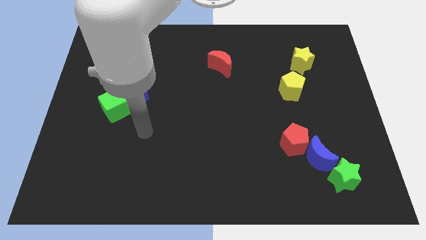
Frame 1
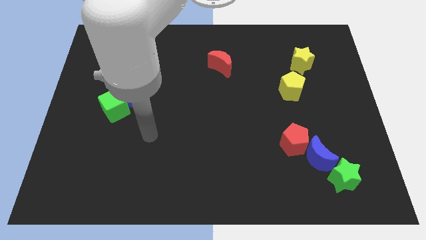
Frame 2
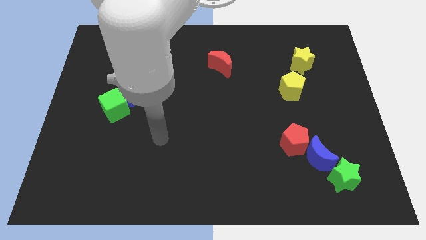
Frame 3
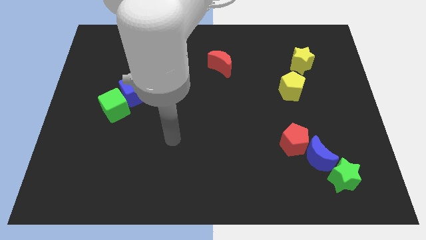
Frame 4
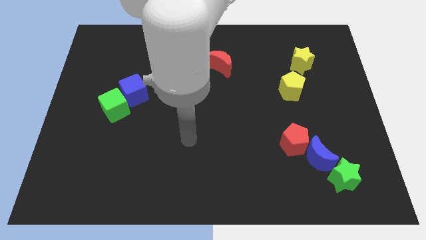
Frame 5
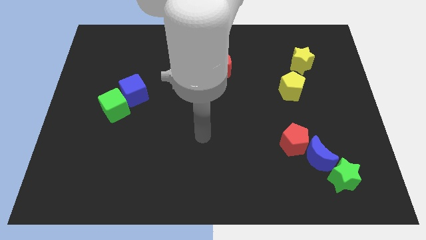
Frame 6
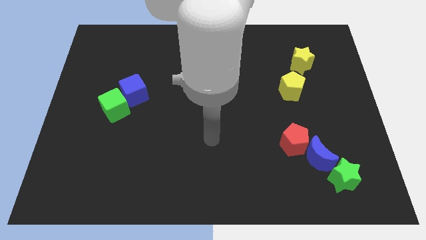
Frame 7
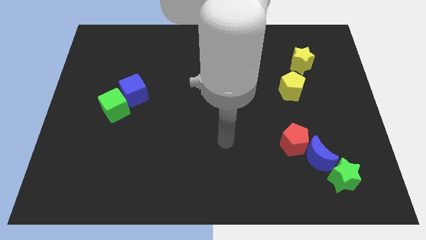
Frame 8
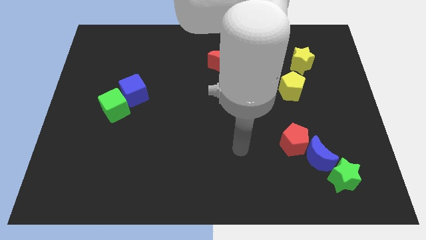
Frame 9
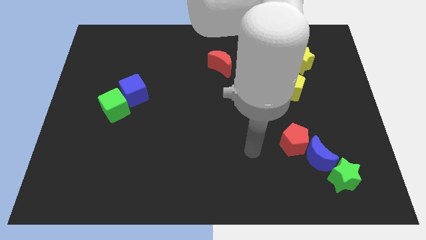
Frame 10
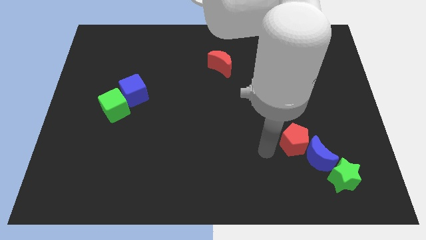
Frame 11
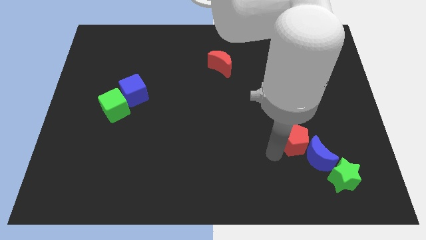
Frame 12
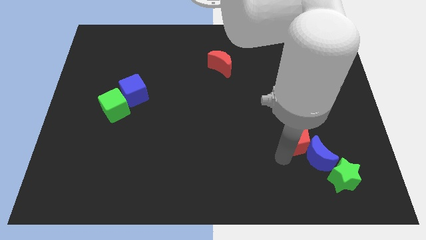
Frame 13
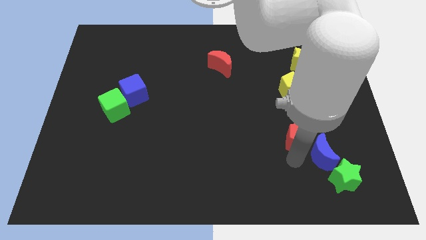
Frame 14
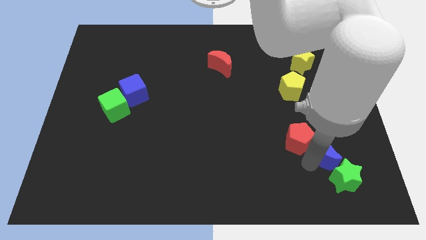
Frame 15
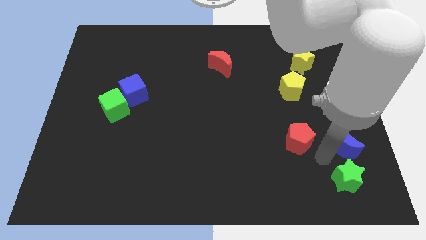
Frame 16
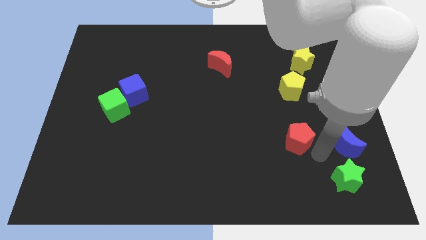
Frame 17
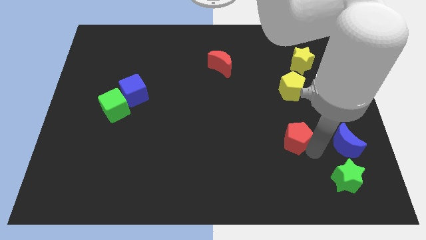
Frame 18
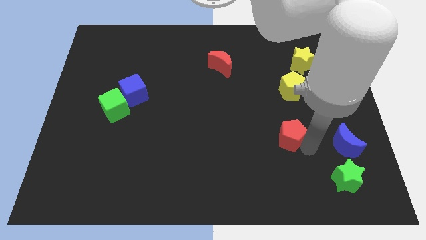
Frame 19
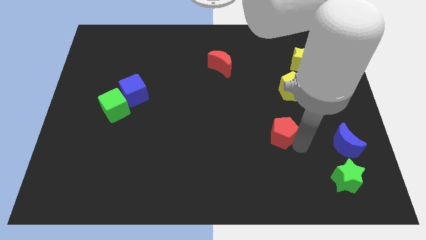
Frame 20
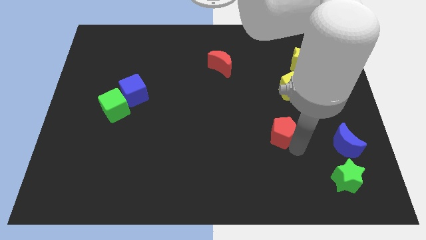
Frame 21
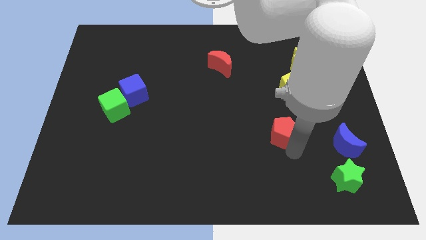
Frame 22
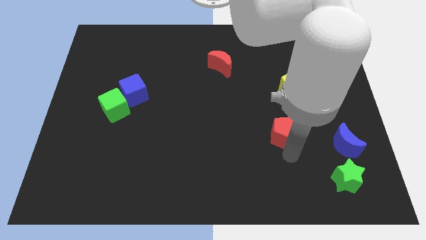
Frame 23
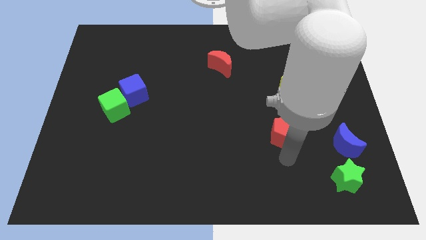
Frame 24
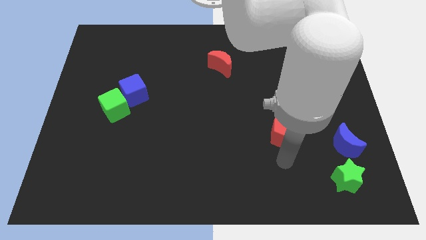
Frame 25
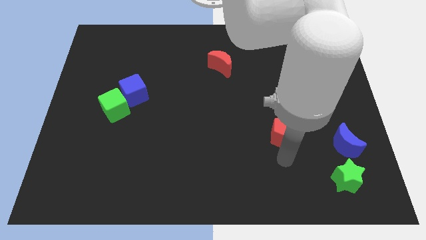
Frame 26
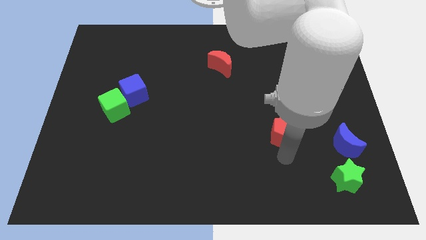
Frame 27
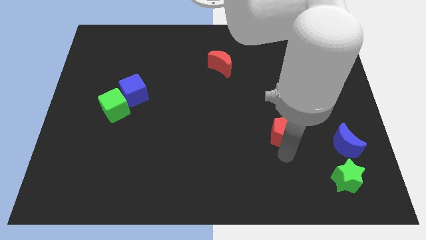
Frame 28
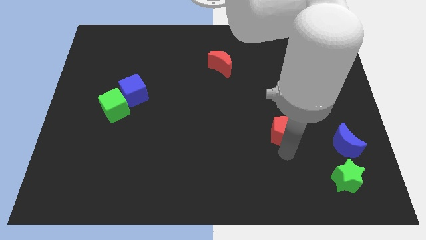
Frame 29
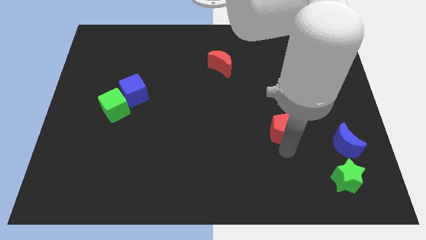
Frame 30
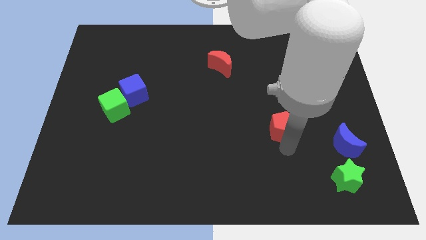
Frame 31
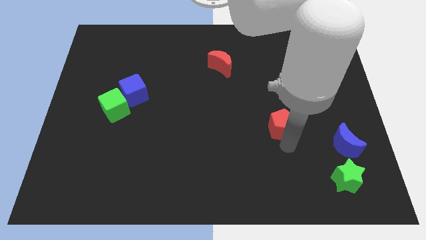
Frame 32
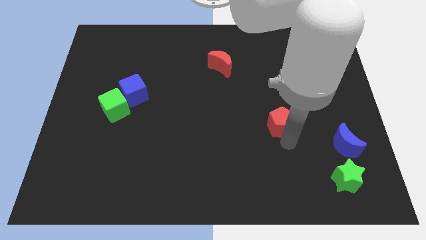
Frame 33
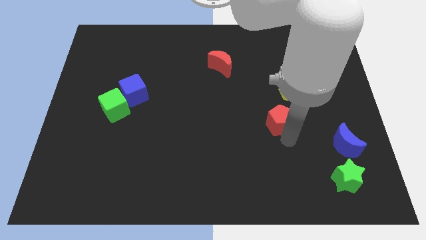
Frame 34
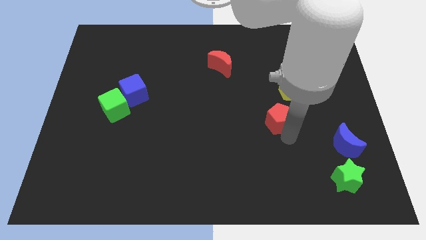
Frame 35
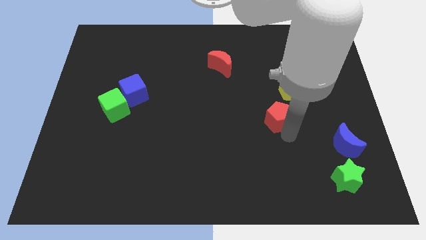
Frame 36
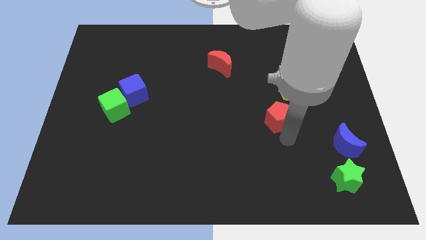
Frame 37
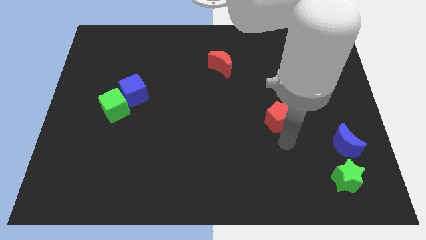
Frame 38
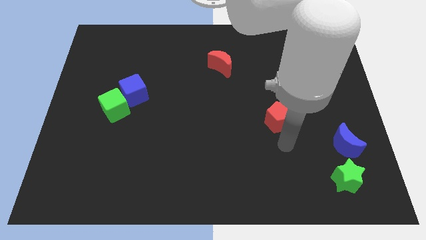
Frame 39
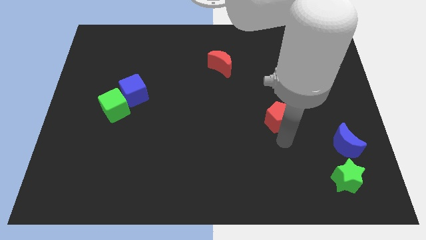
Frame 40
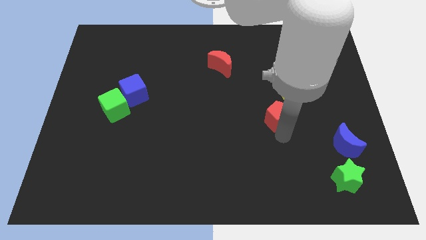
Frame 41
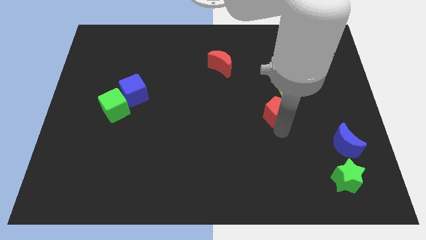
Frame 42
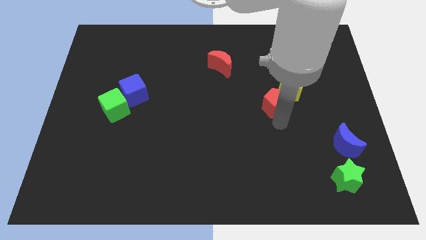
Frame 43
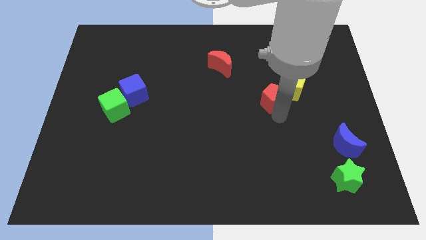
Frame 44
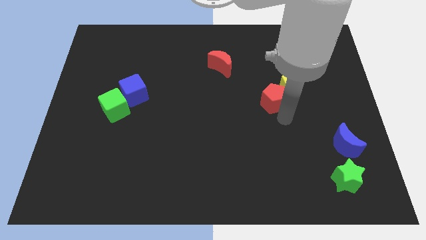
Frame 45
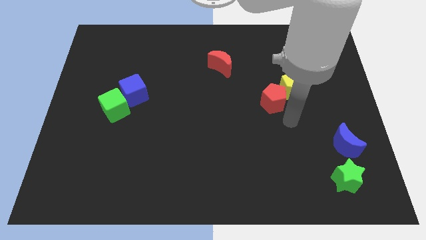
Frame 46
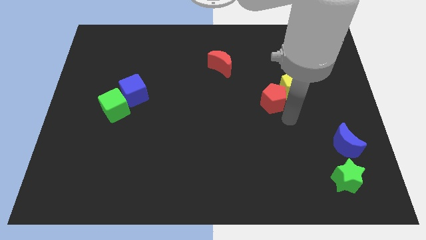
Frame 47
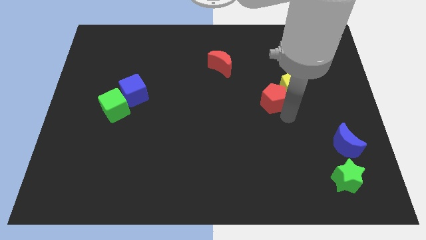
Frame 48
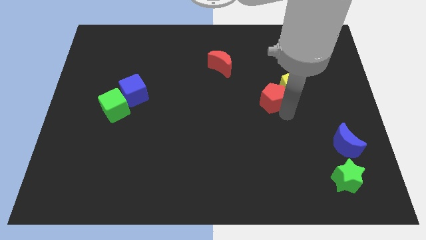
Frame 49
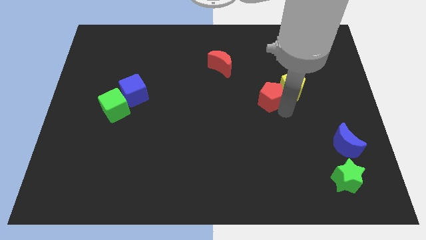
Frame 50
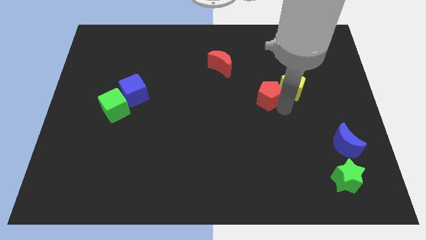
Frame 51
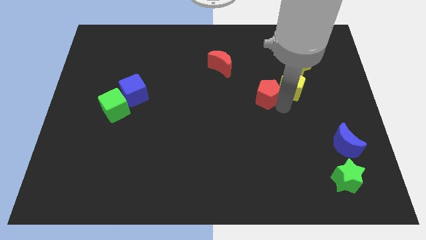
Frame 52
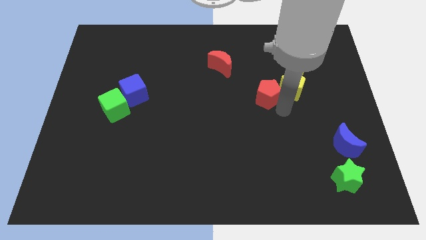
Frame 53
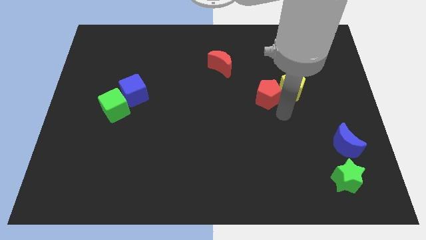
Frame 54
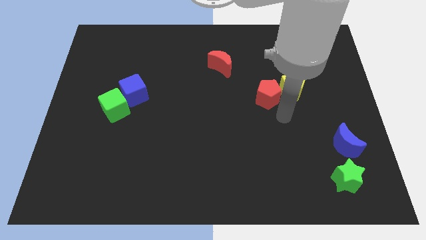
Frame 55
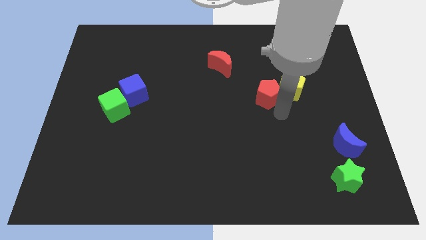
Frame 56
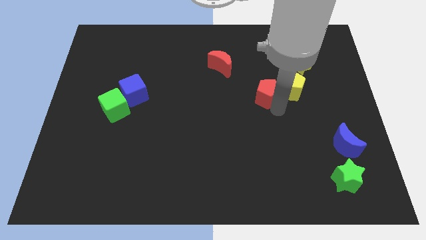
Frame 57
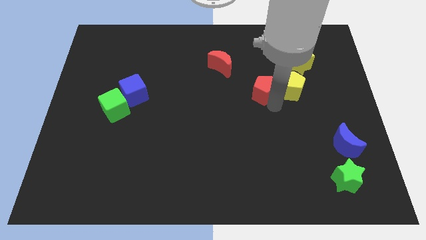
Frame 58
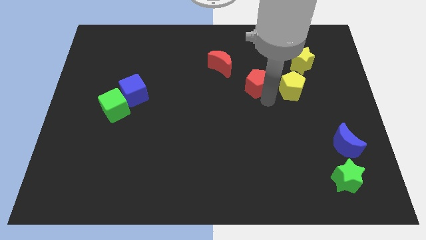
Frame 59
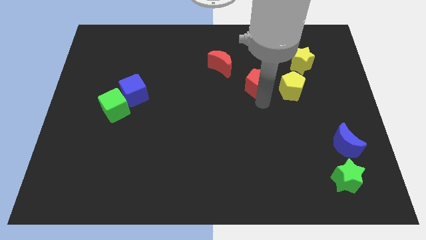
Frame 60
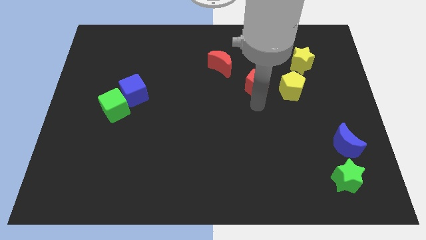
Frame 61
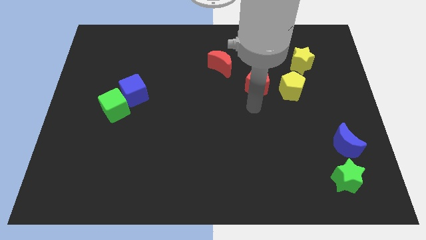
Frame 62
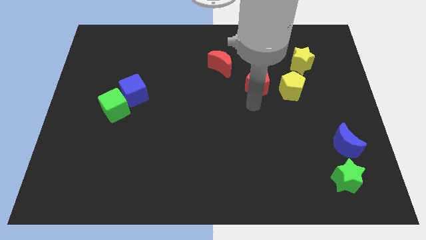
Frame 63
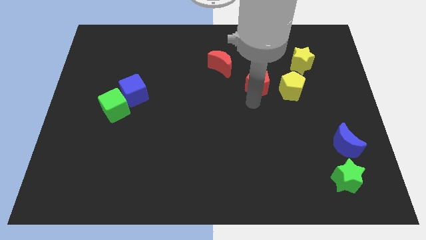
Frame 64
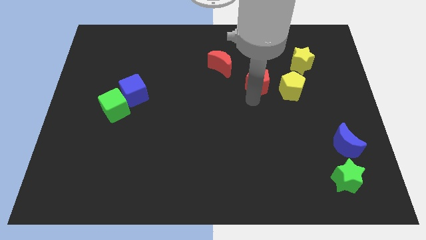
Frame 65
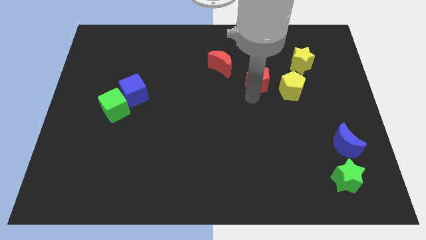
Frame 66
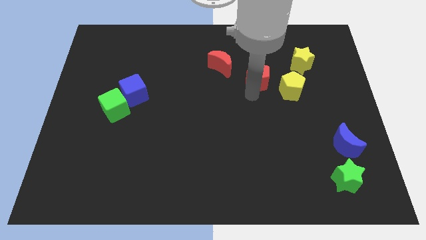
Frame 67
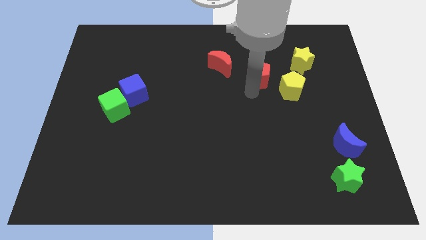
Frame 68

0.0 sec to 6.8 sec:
move the red pentagon to the right side of the red moon
